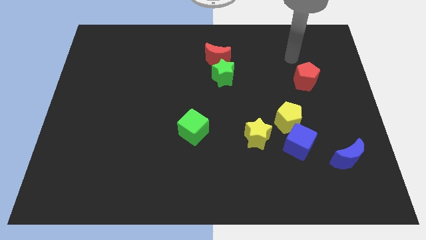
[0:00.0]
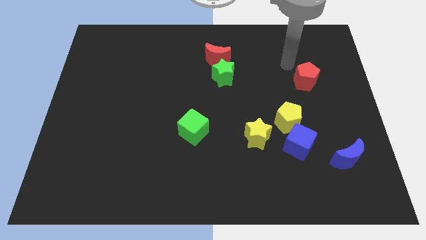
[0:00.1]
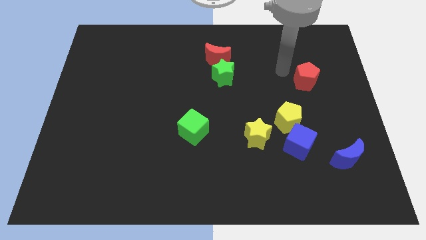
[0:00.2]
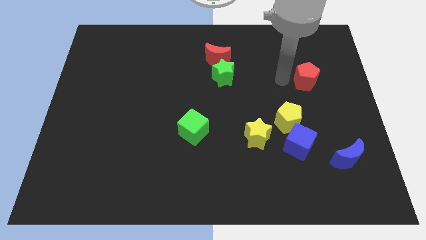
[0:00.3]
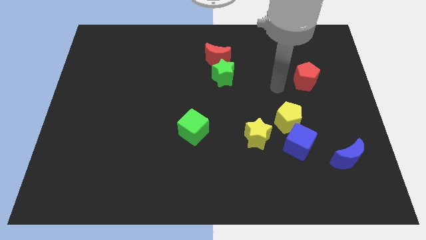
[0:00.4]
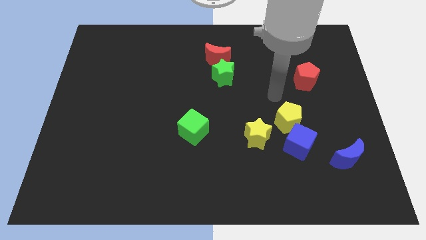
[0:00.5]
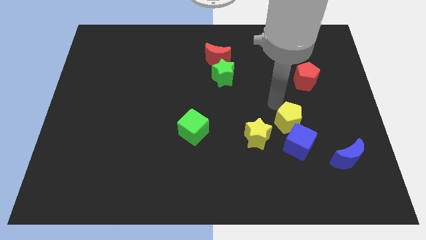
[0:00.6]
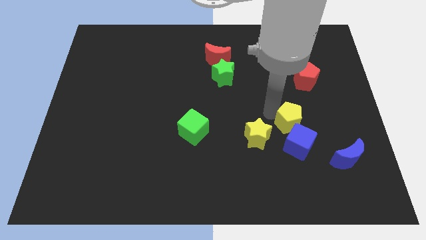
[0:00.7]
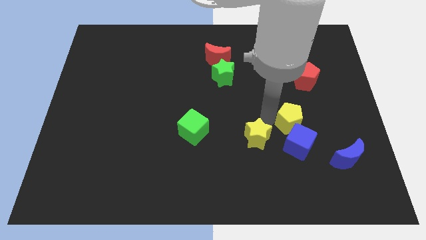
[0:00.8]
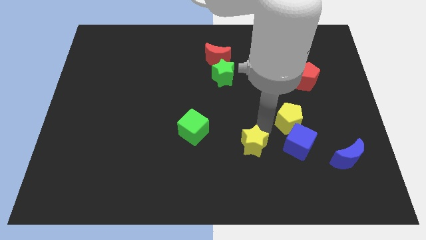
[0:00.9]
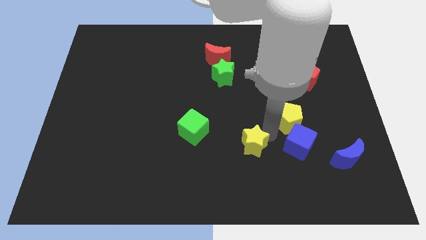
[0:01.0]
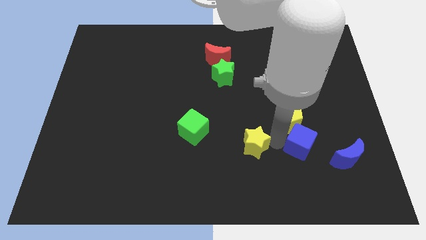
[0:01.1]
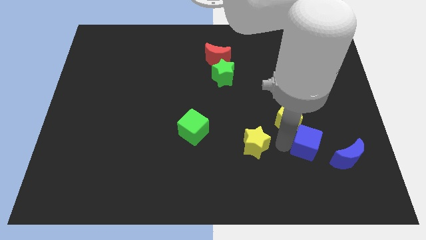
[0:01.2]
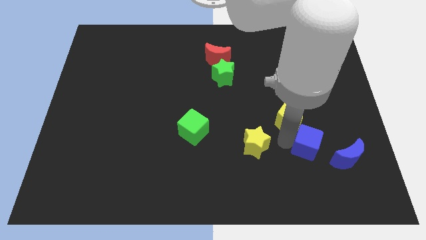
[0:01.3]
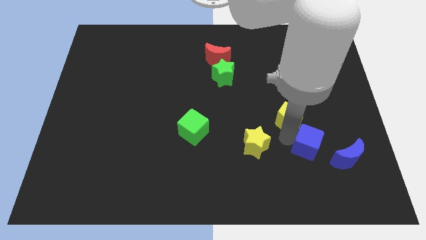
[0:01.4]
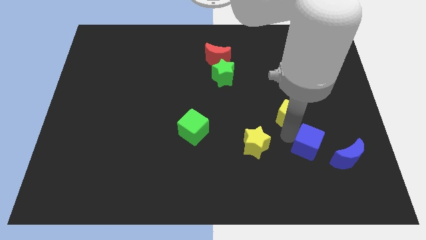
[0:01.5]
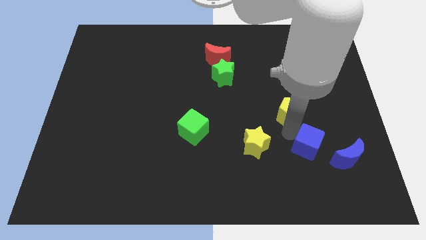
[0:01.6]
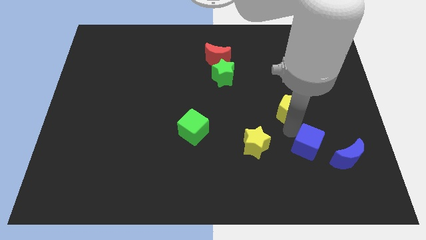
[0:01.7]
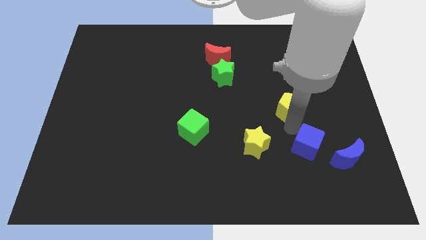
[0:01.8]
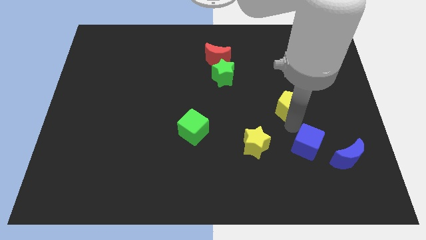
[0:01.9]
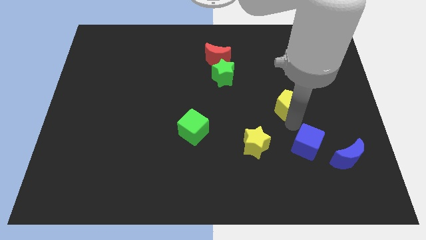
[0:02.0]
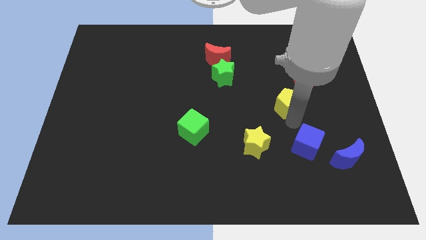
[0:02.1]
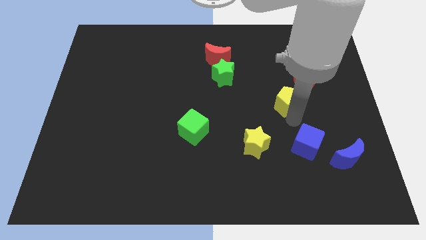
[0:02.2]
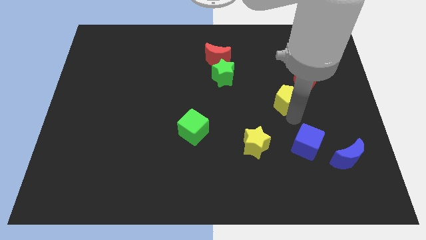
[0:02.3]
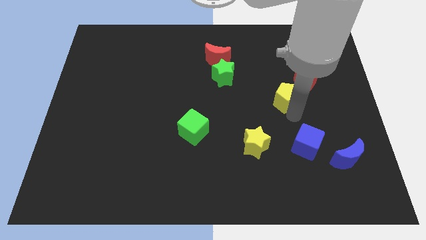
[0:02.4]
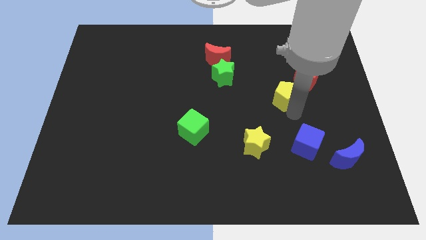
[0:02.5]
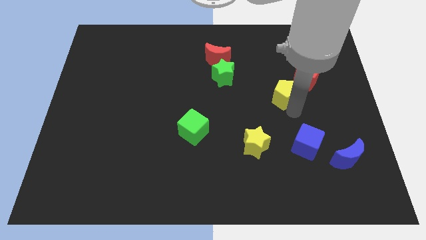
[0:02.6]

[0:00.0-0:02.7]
slide the yellow pentagon a little upwards

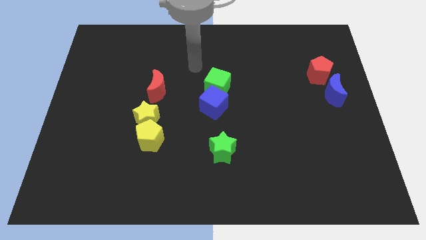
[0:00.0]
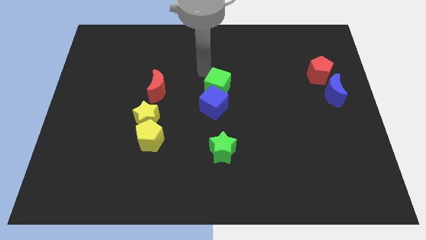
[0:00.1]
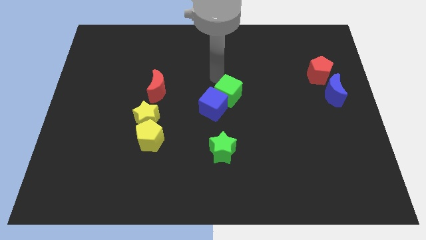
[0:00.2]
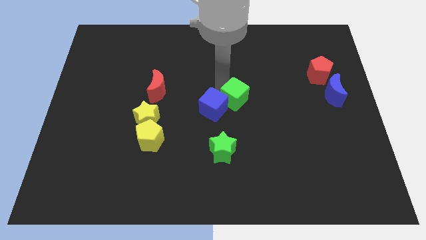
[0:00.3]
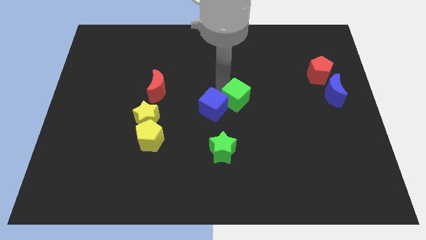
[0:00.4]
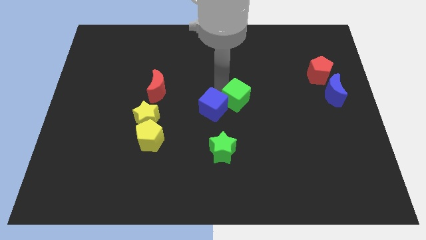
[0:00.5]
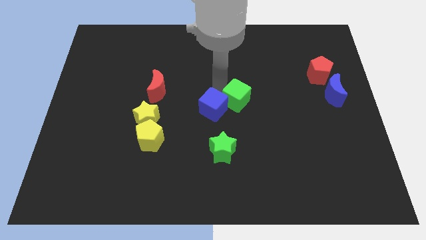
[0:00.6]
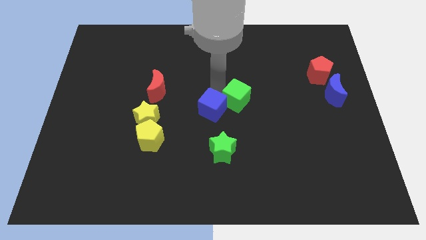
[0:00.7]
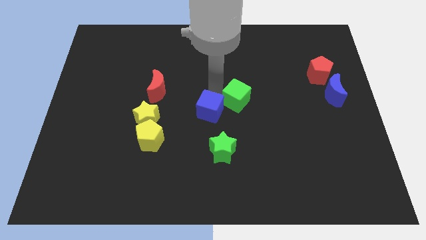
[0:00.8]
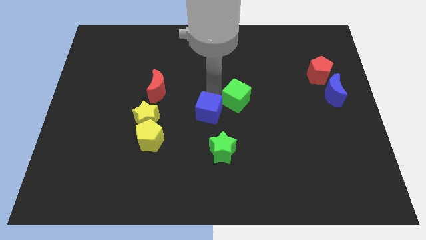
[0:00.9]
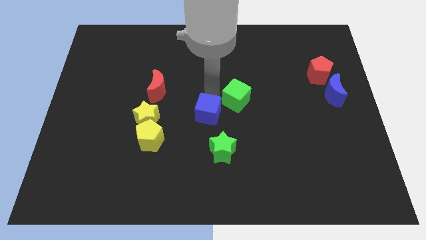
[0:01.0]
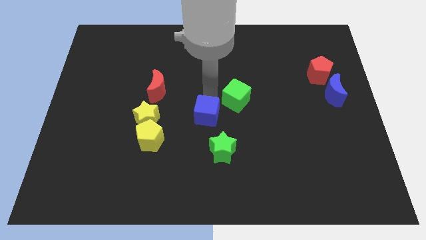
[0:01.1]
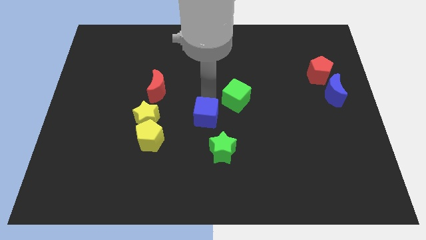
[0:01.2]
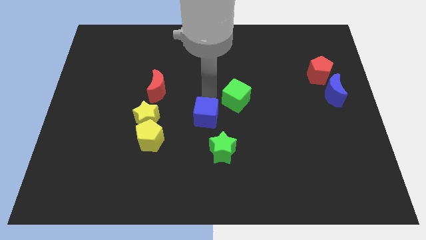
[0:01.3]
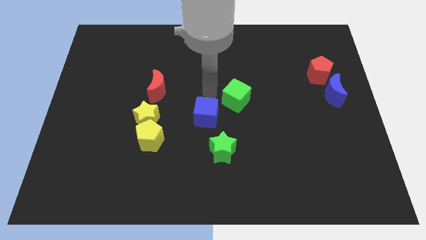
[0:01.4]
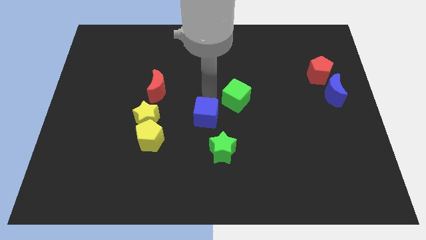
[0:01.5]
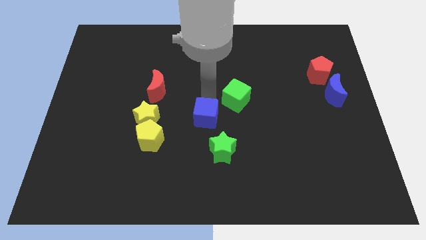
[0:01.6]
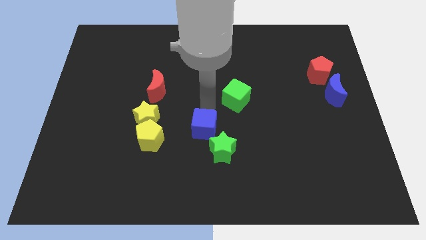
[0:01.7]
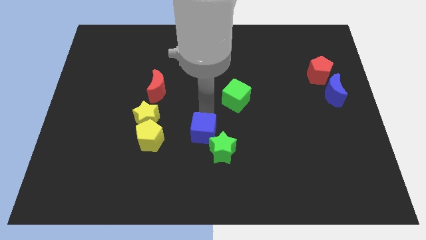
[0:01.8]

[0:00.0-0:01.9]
slide the blue cube down a bit

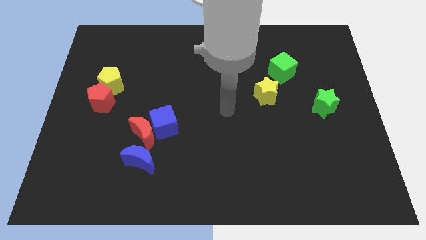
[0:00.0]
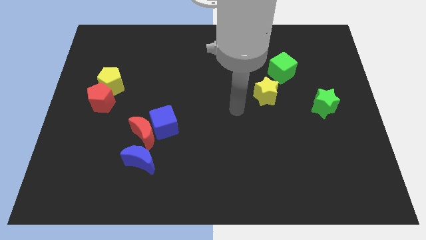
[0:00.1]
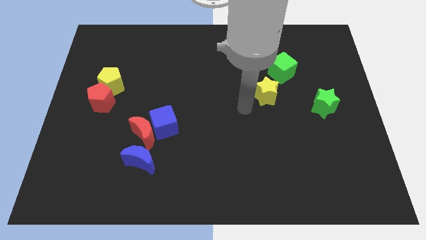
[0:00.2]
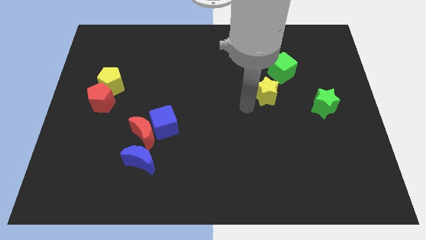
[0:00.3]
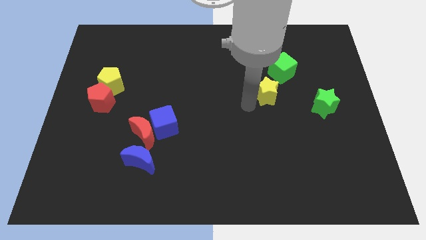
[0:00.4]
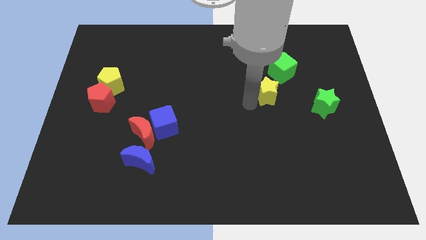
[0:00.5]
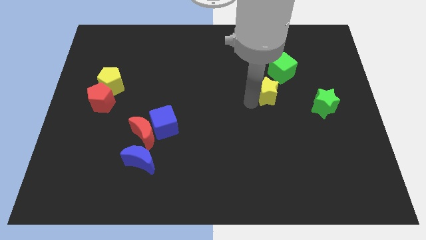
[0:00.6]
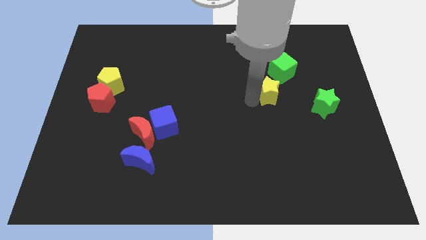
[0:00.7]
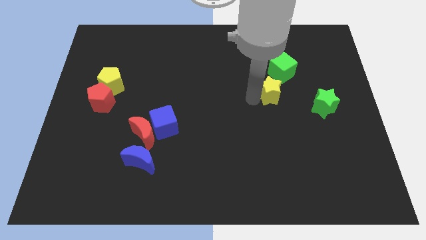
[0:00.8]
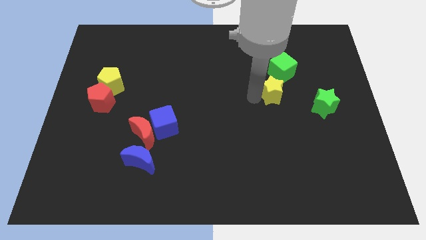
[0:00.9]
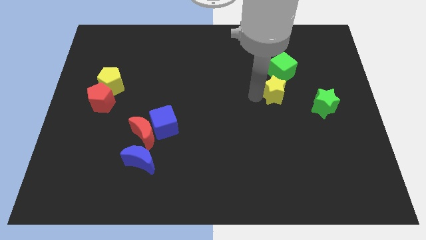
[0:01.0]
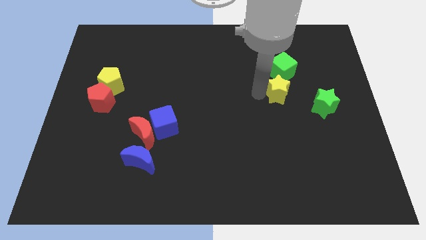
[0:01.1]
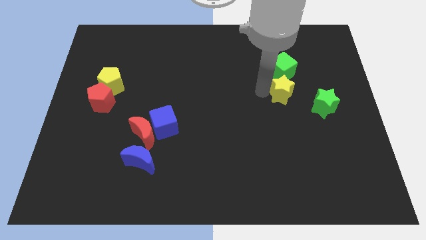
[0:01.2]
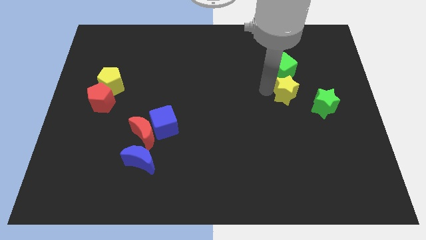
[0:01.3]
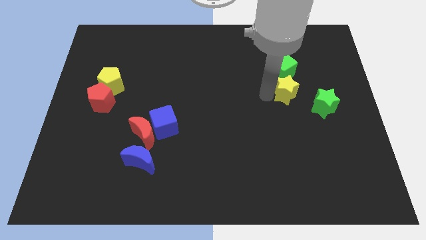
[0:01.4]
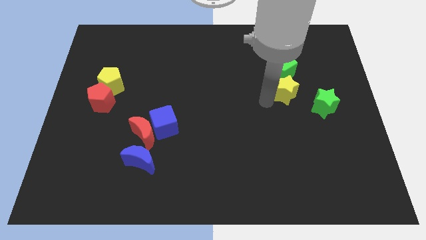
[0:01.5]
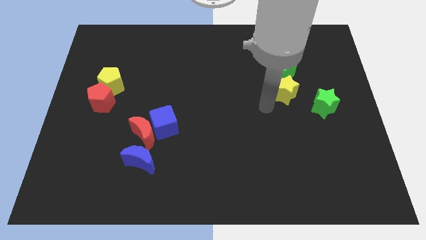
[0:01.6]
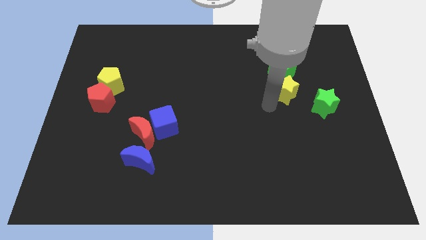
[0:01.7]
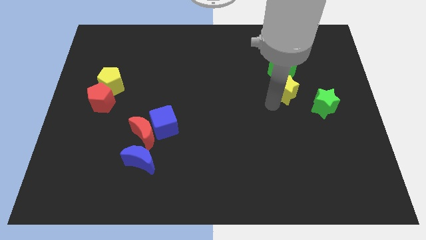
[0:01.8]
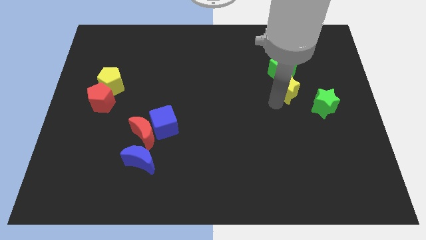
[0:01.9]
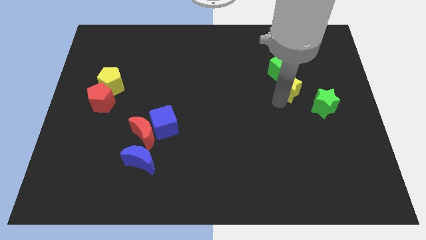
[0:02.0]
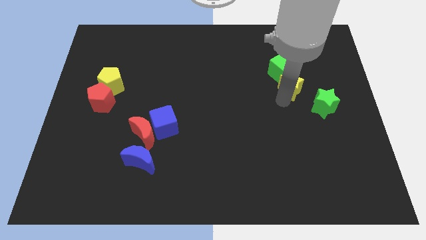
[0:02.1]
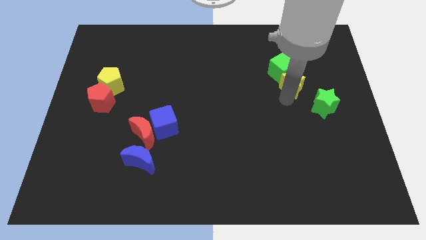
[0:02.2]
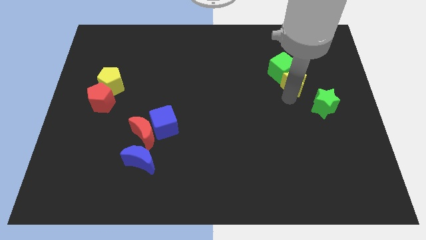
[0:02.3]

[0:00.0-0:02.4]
push the yellow star diagonally upwards and right somewhat

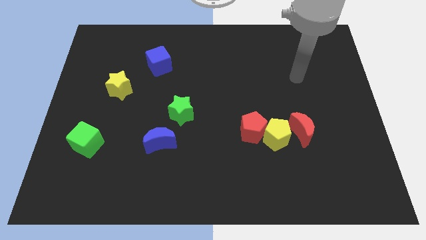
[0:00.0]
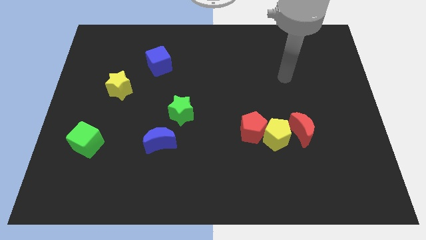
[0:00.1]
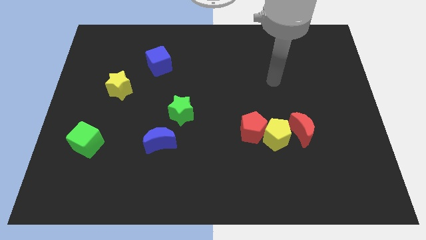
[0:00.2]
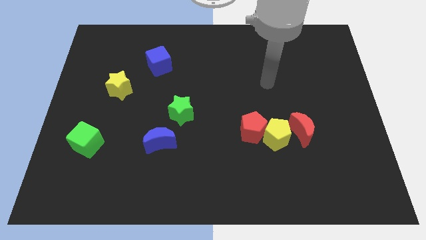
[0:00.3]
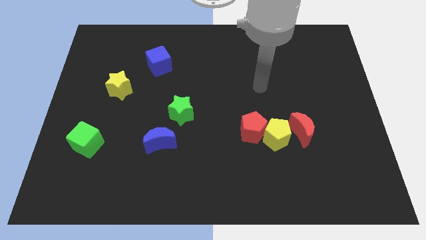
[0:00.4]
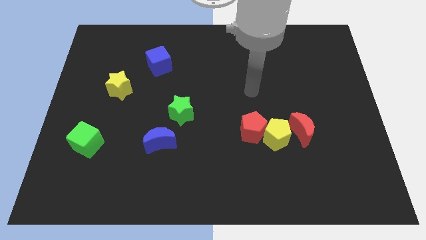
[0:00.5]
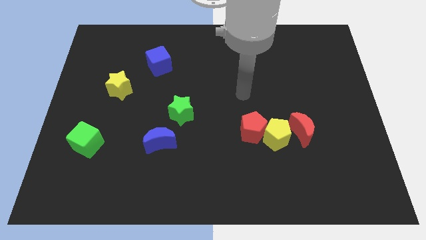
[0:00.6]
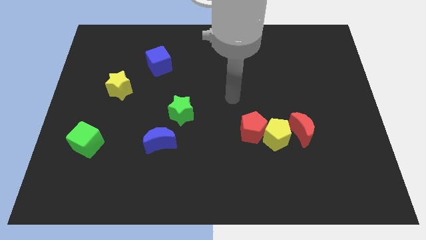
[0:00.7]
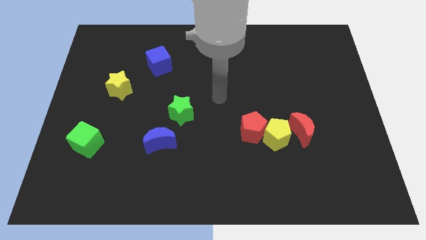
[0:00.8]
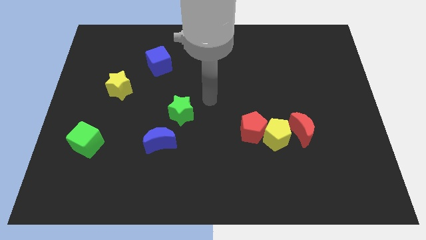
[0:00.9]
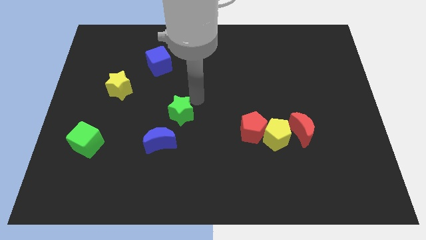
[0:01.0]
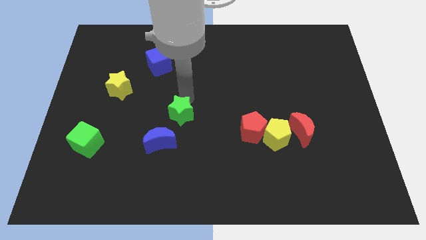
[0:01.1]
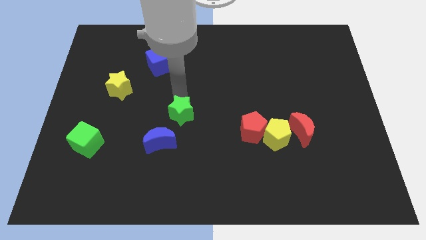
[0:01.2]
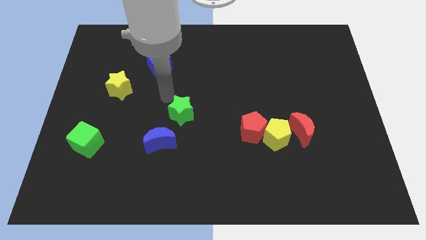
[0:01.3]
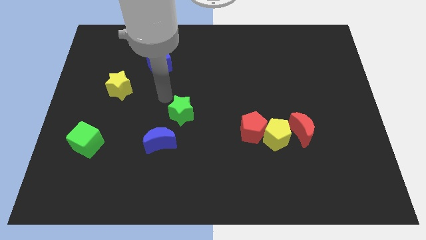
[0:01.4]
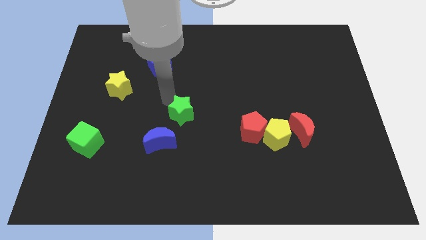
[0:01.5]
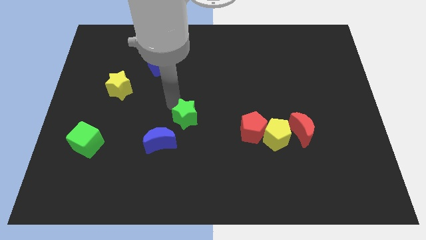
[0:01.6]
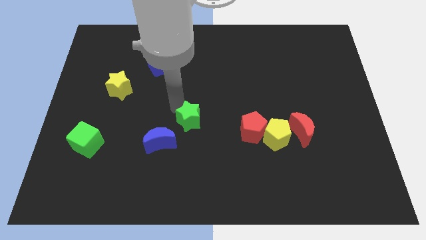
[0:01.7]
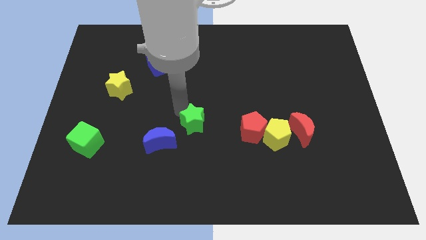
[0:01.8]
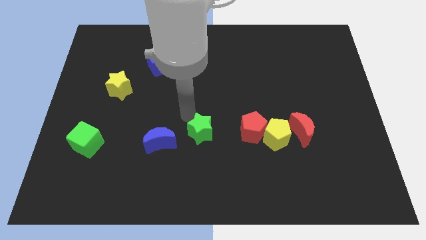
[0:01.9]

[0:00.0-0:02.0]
push the green star downwards and then right a bit
